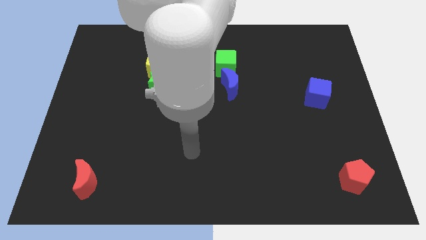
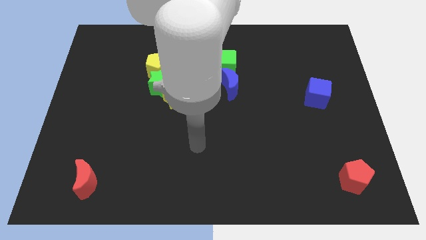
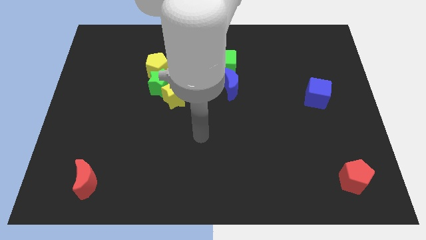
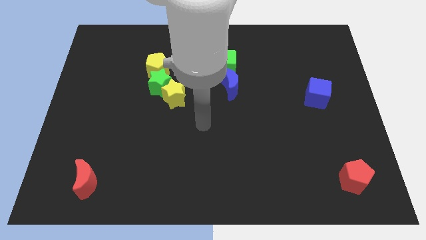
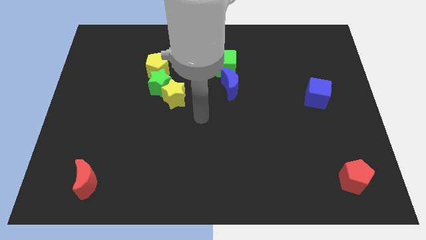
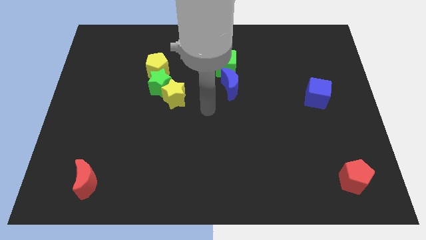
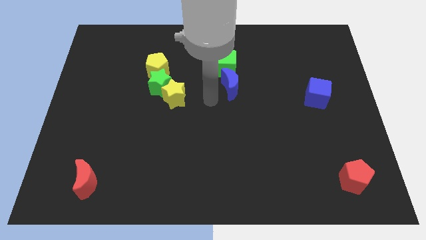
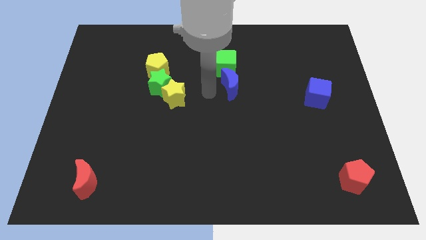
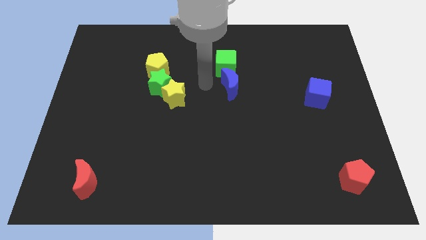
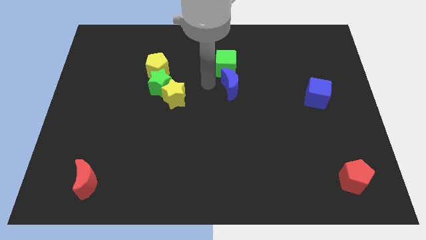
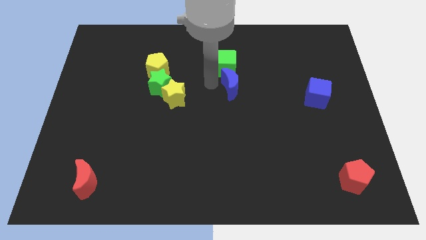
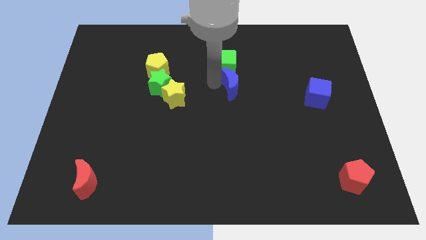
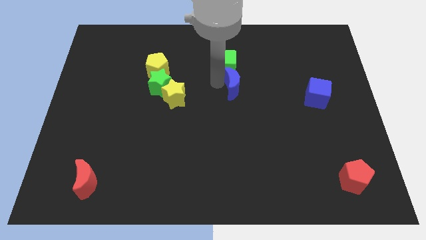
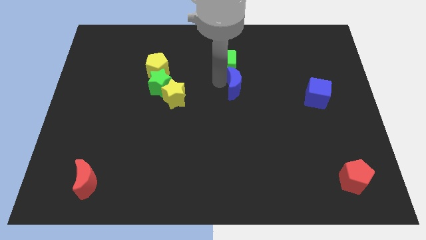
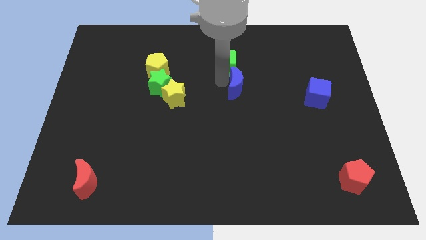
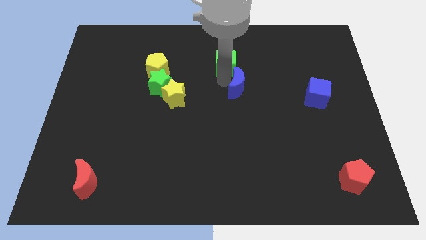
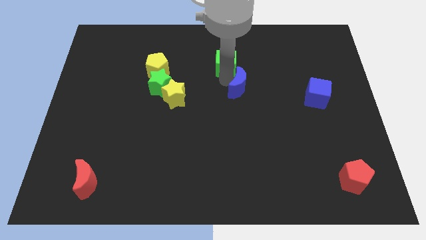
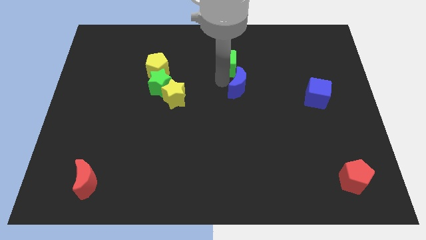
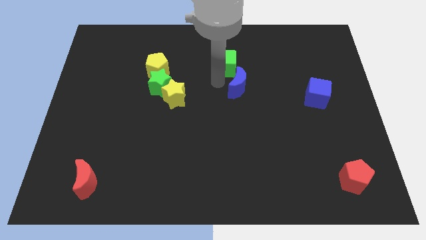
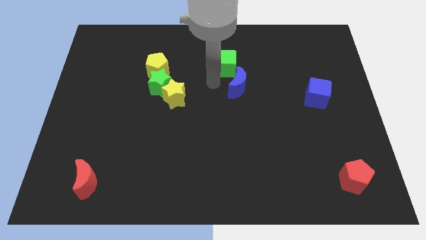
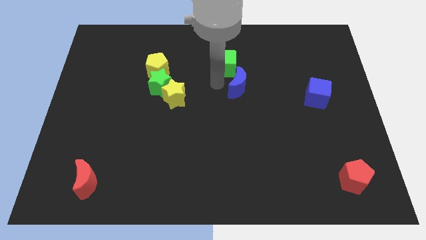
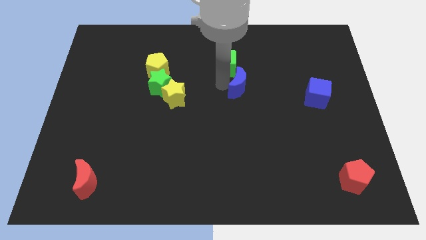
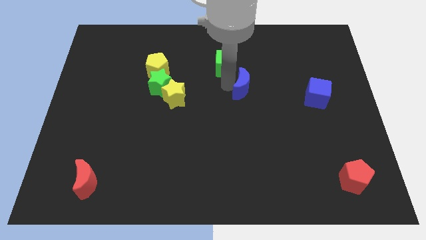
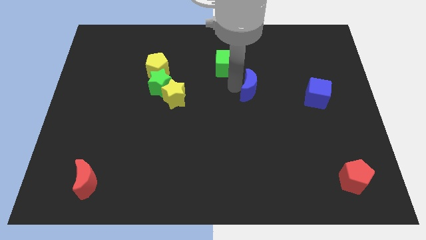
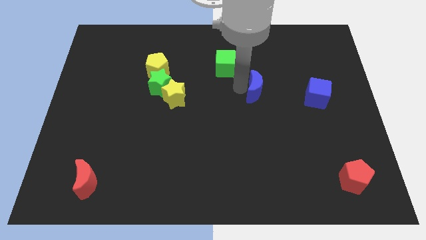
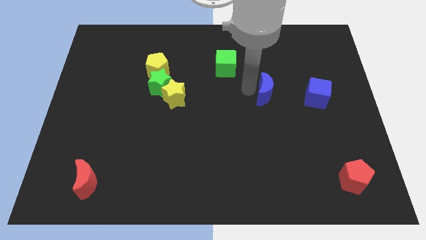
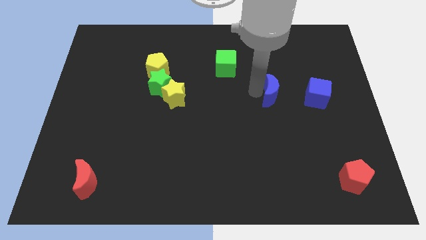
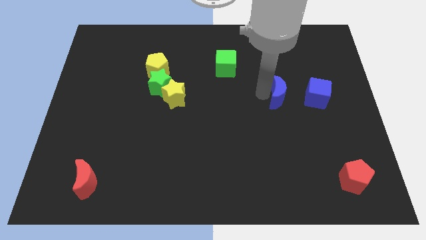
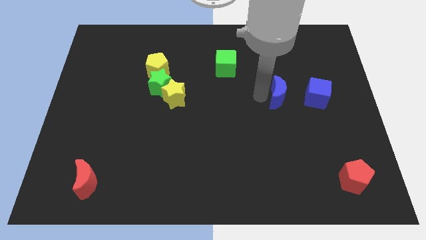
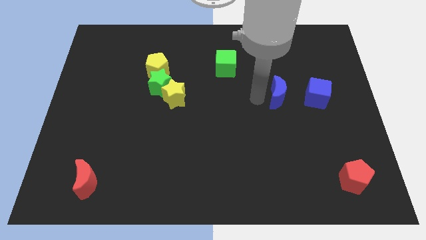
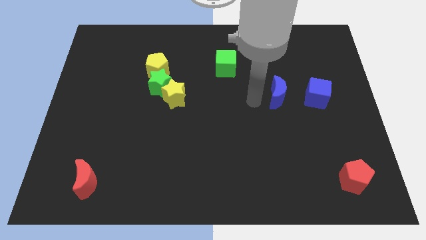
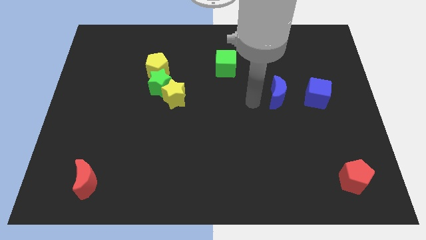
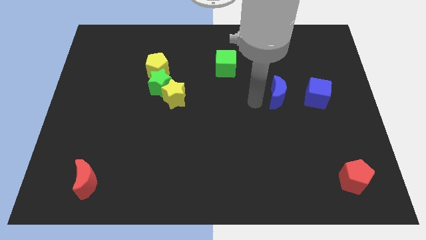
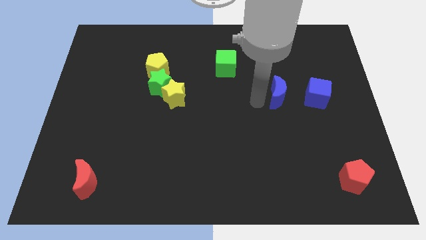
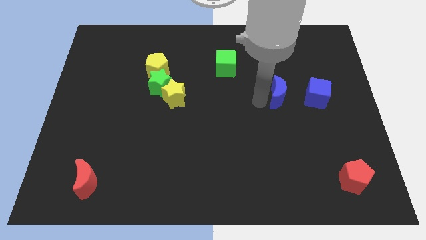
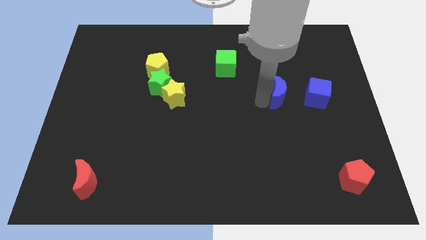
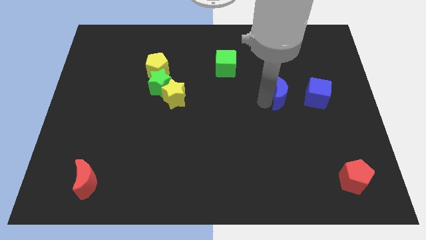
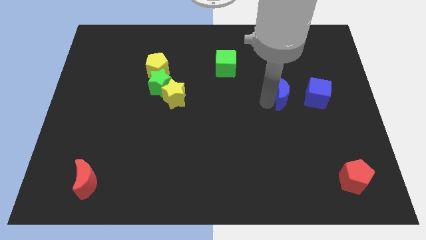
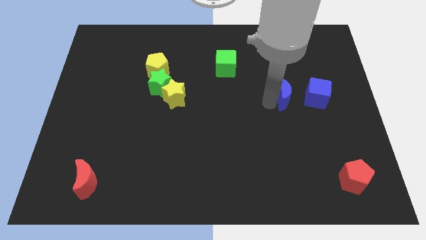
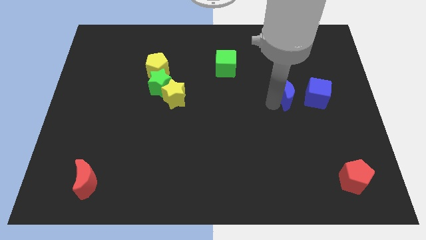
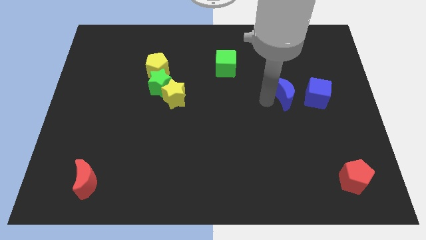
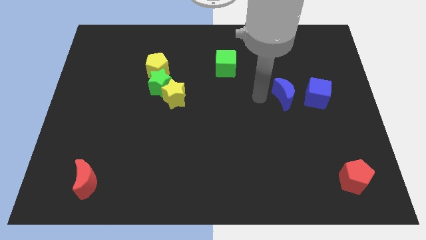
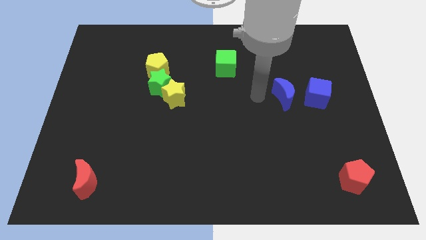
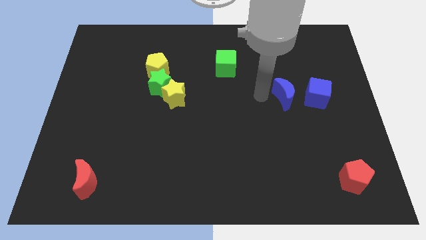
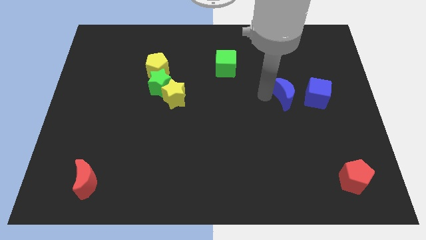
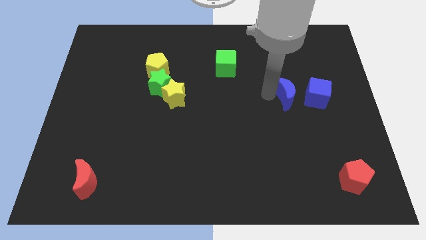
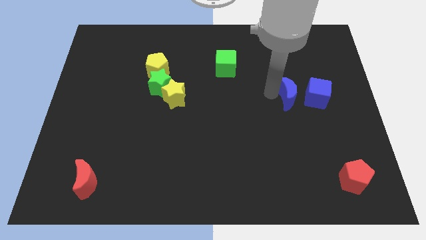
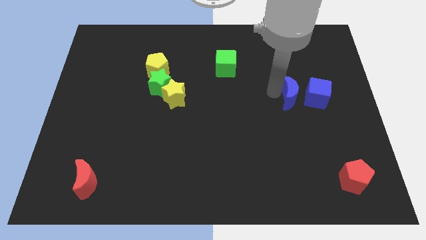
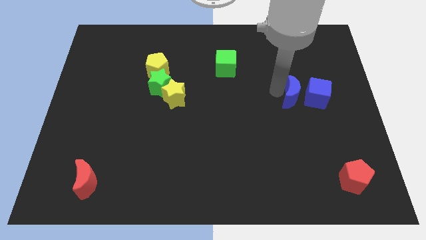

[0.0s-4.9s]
move the blue moon next to the blue cube

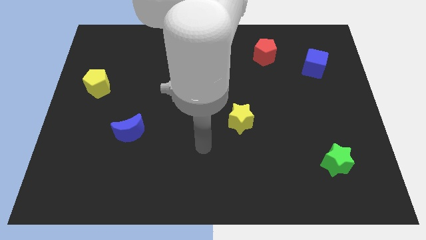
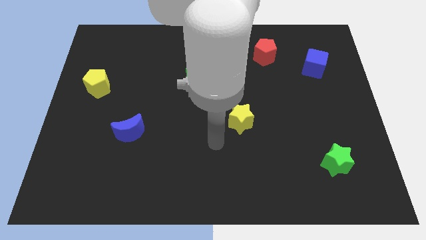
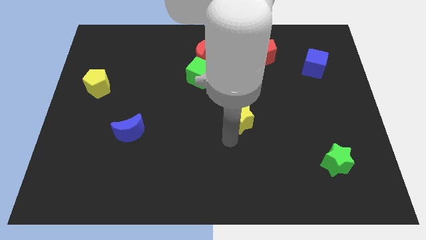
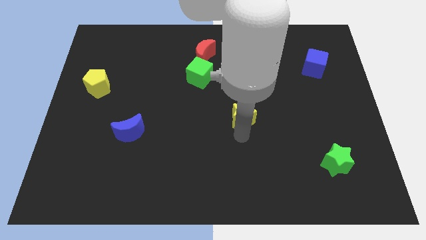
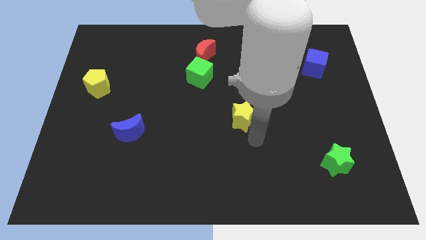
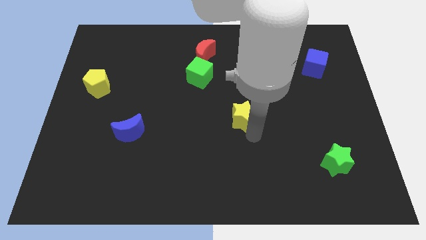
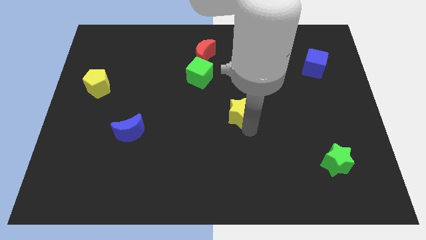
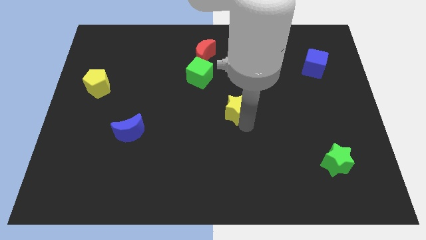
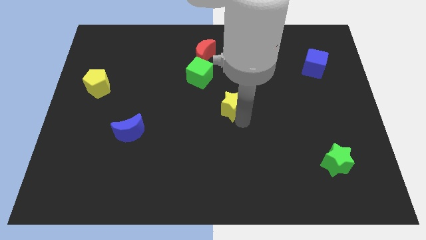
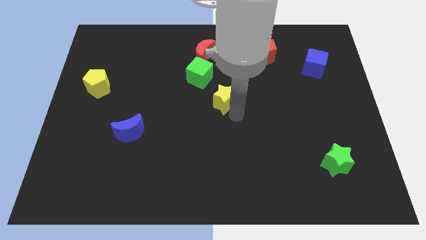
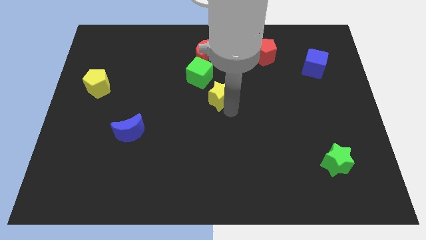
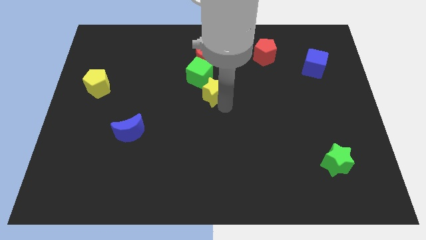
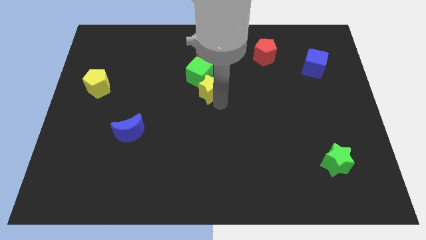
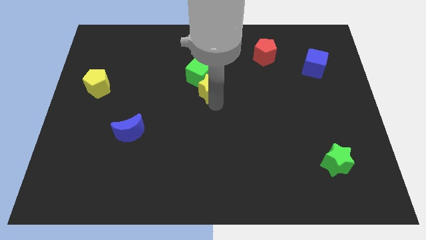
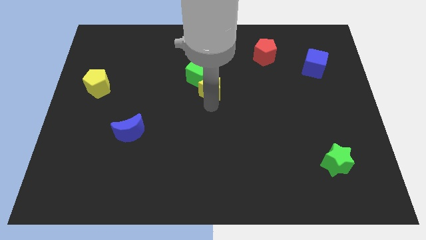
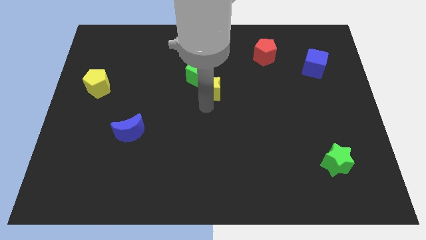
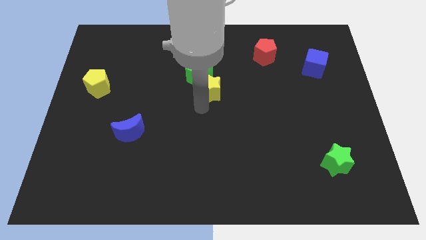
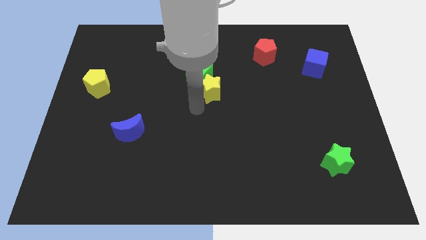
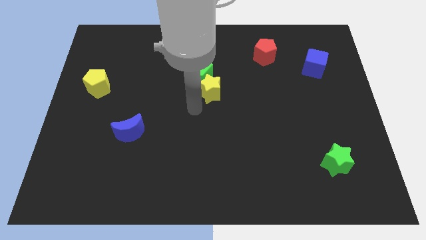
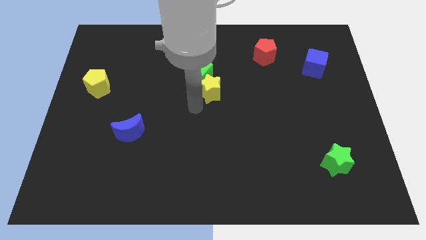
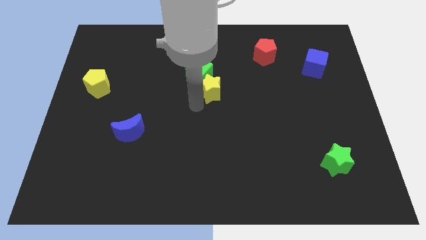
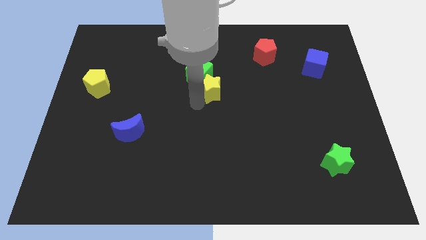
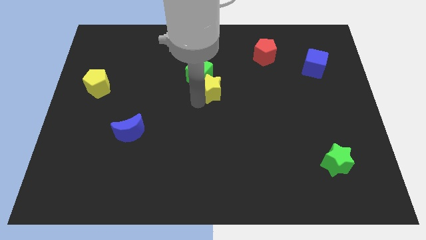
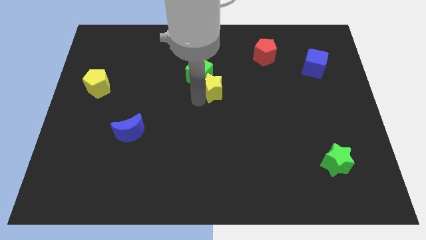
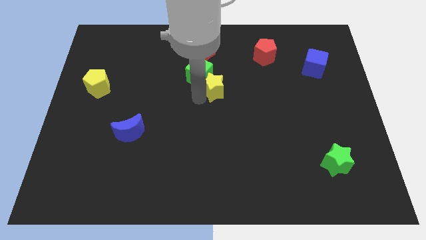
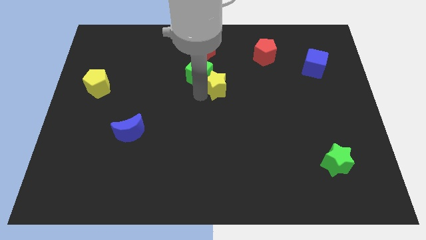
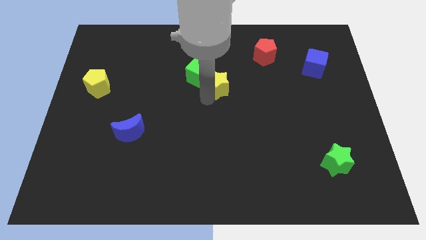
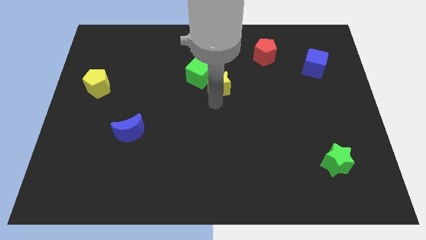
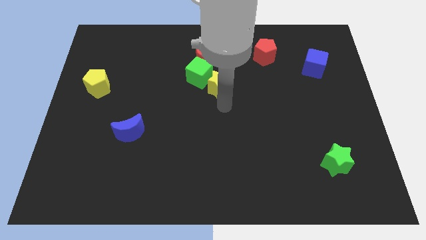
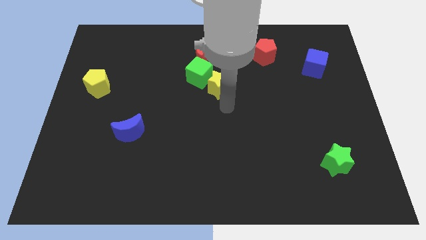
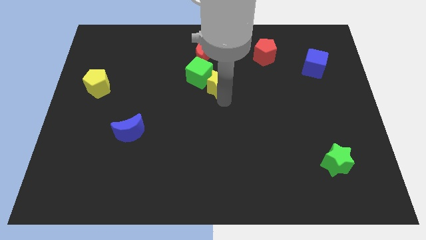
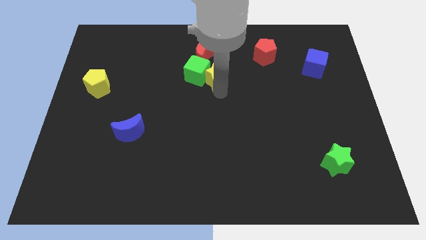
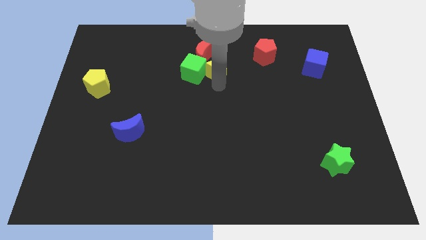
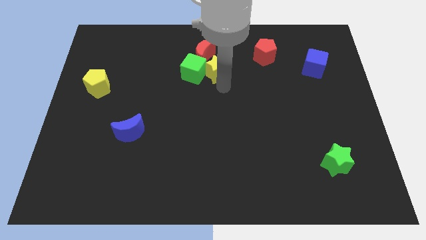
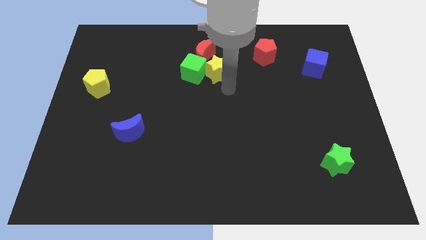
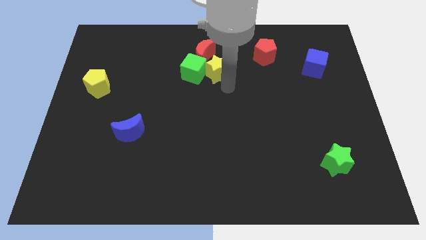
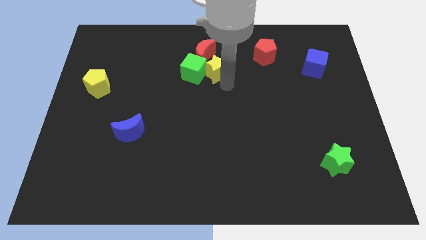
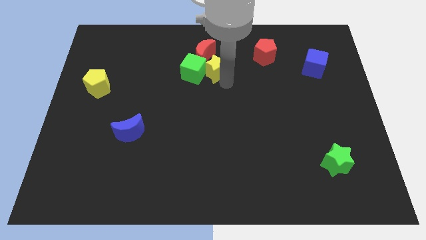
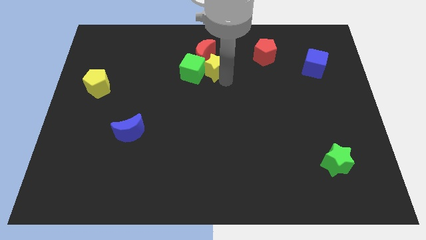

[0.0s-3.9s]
push the yellow star next to the red moon
